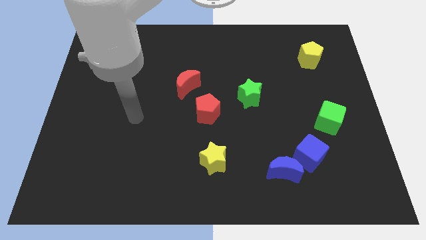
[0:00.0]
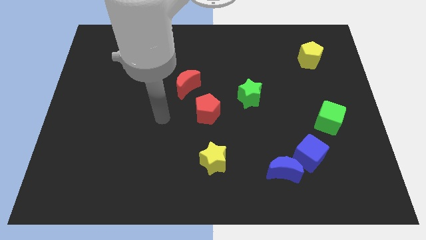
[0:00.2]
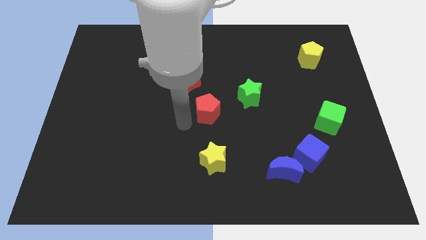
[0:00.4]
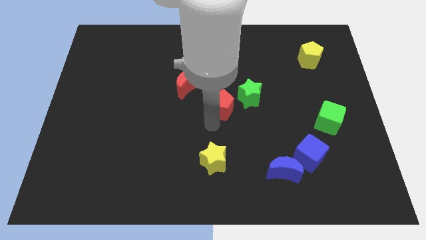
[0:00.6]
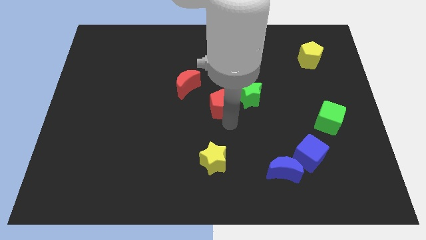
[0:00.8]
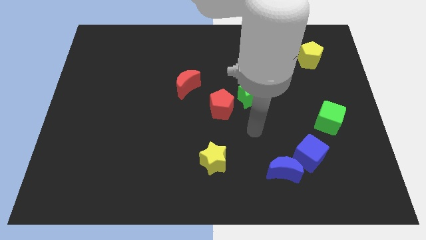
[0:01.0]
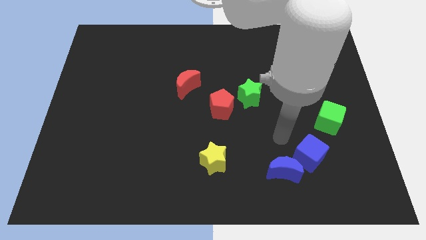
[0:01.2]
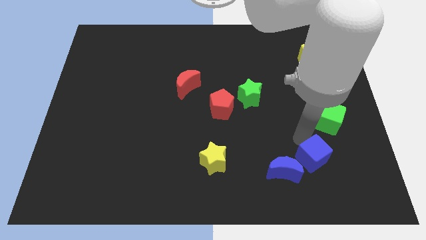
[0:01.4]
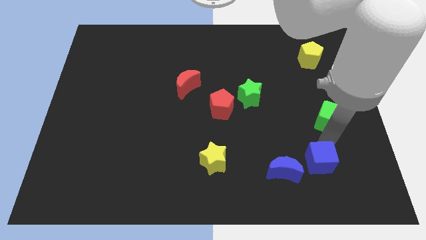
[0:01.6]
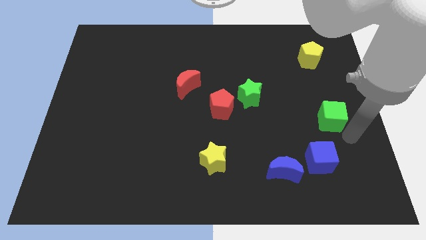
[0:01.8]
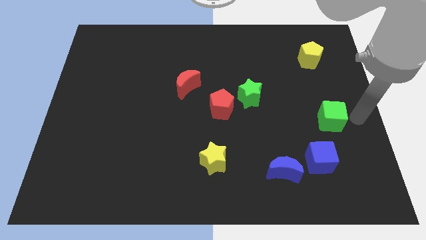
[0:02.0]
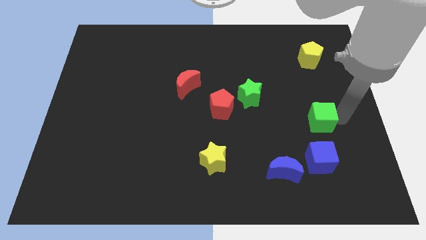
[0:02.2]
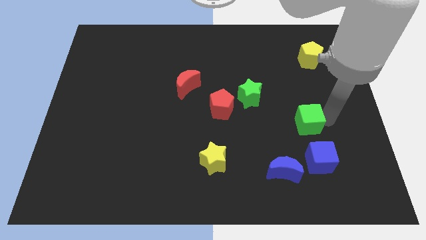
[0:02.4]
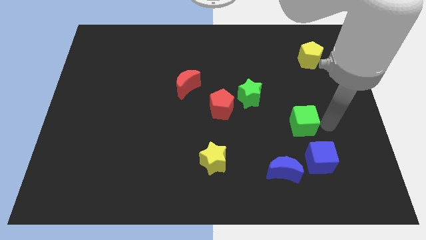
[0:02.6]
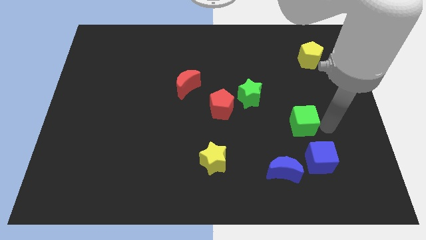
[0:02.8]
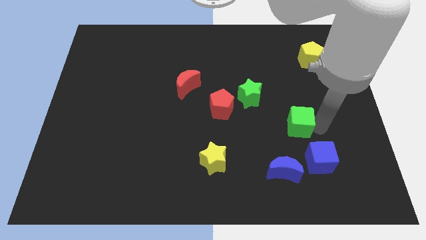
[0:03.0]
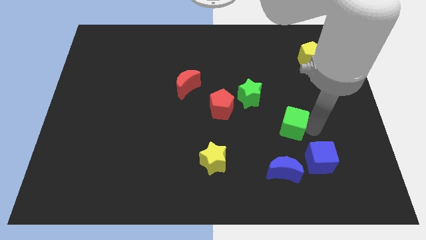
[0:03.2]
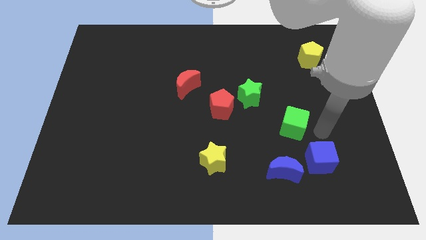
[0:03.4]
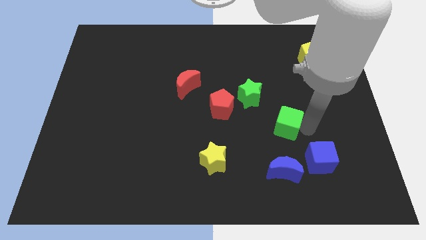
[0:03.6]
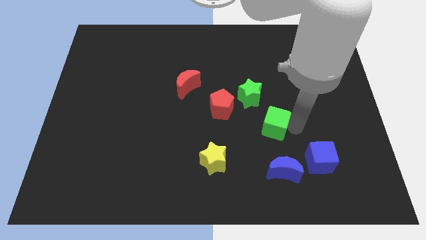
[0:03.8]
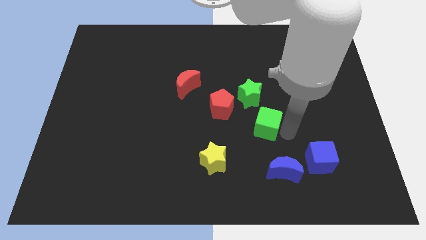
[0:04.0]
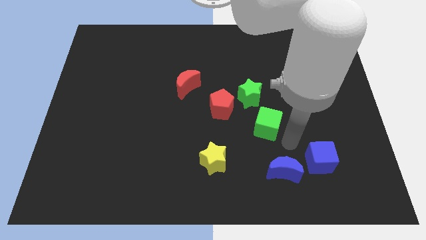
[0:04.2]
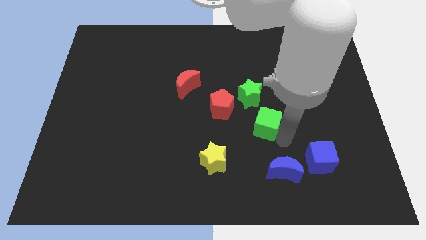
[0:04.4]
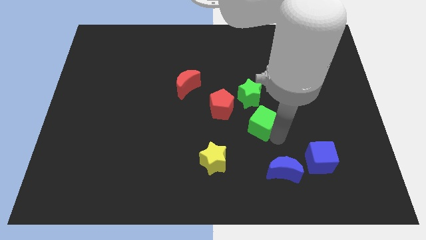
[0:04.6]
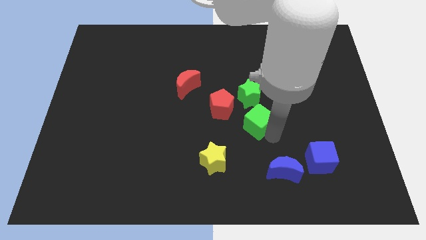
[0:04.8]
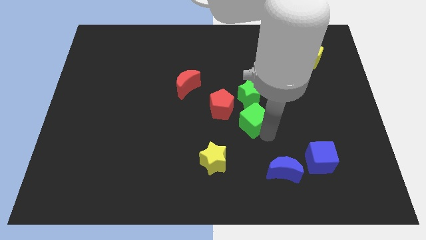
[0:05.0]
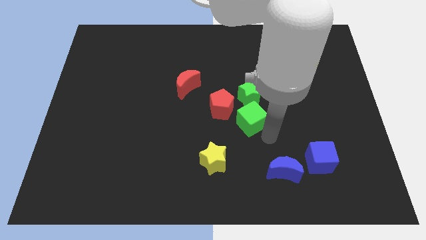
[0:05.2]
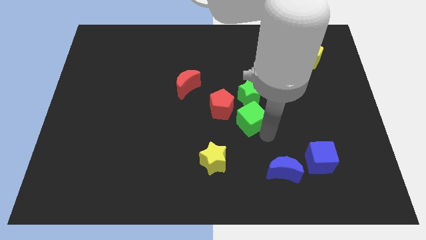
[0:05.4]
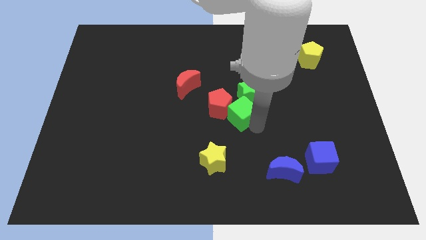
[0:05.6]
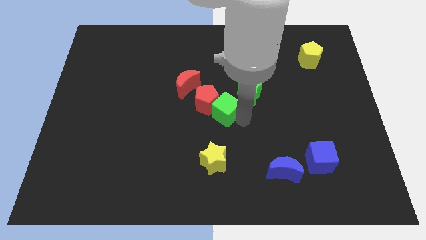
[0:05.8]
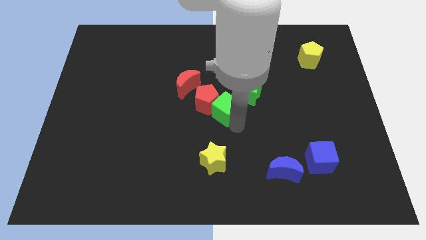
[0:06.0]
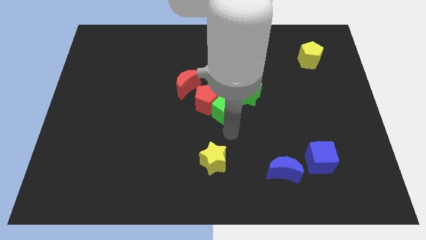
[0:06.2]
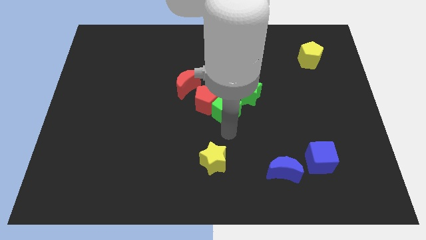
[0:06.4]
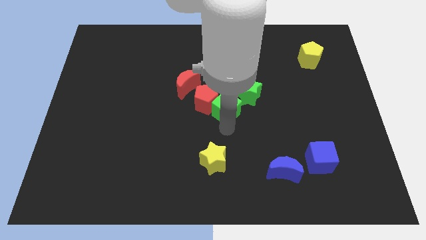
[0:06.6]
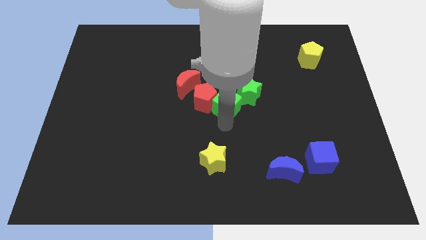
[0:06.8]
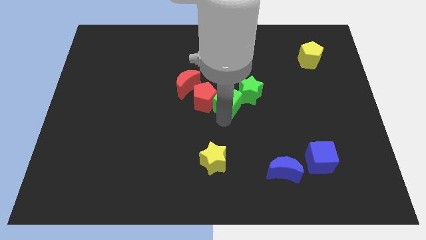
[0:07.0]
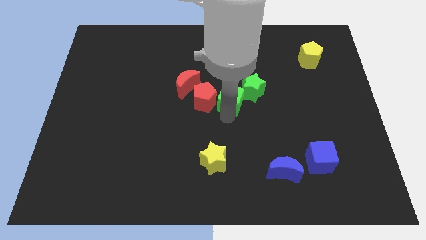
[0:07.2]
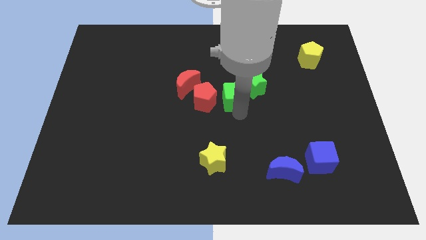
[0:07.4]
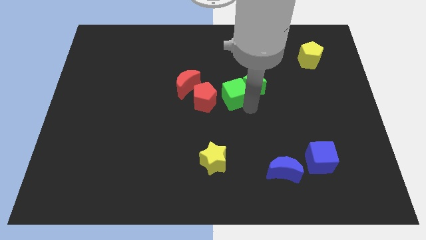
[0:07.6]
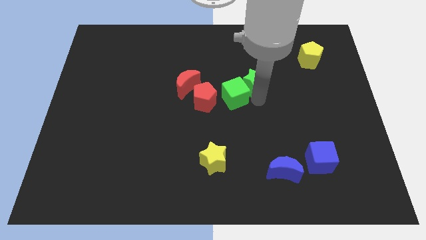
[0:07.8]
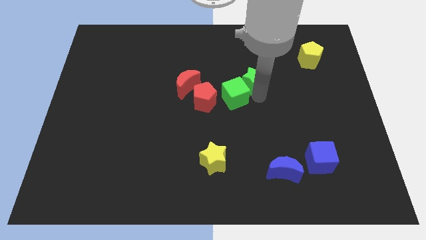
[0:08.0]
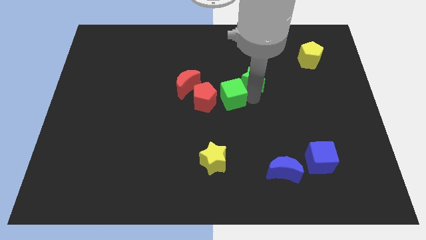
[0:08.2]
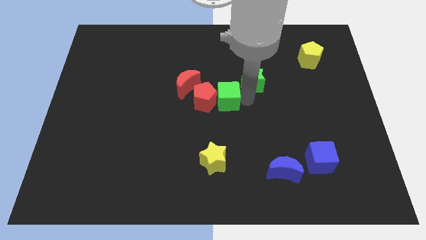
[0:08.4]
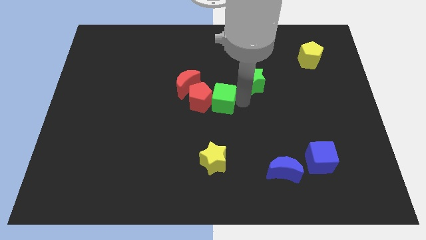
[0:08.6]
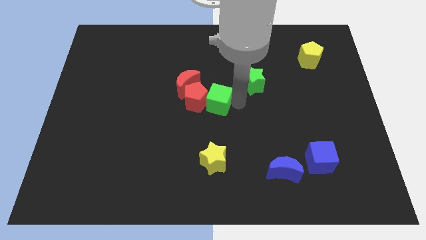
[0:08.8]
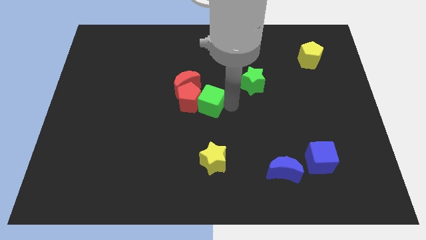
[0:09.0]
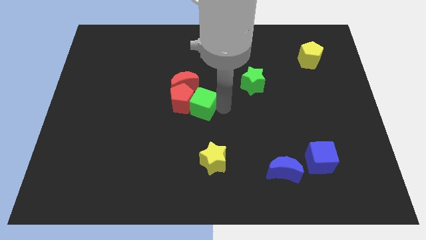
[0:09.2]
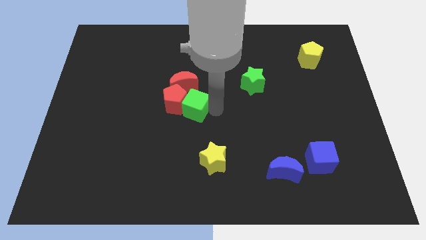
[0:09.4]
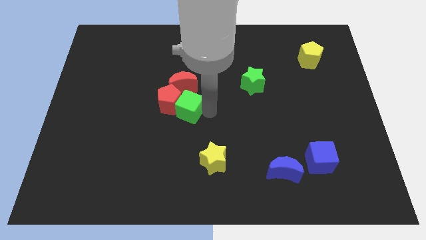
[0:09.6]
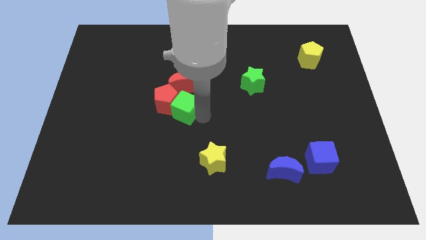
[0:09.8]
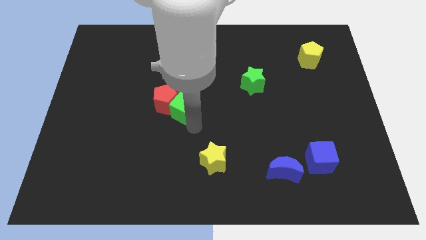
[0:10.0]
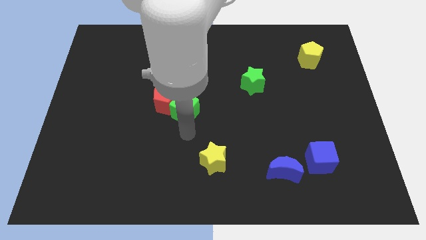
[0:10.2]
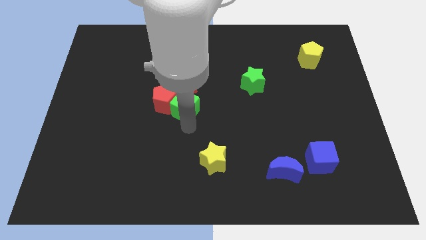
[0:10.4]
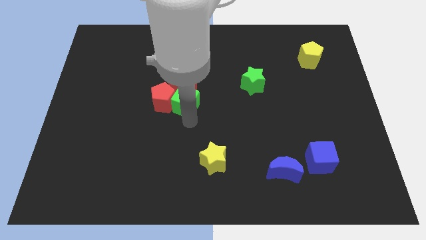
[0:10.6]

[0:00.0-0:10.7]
slide the green cube to the red moon

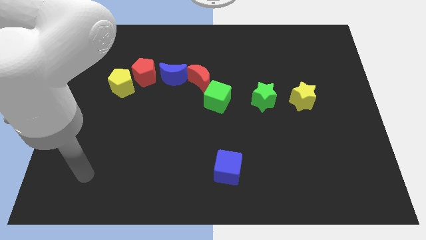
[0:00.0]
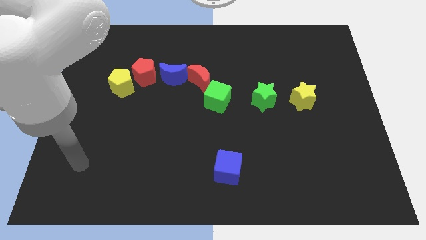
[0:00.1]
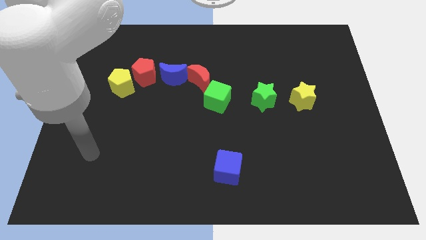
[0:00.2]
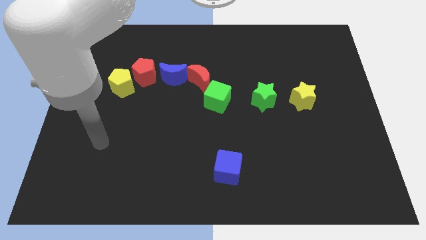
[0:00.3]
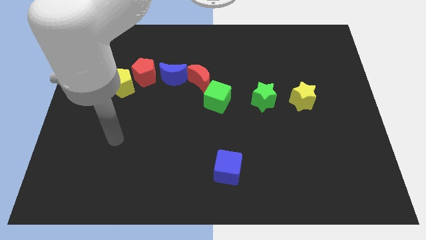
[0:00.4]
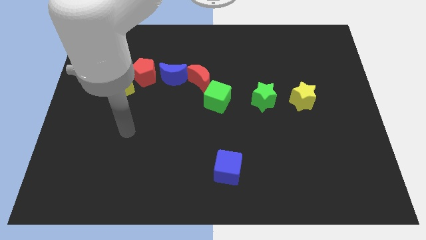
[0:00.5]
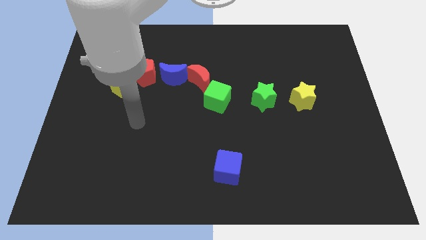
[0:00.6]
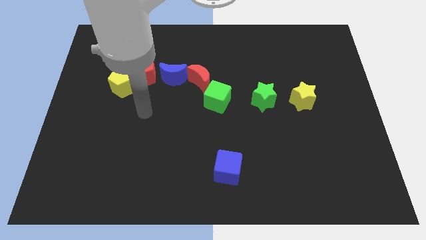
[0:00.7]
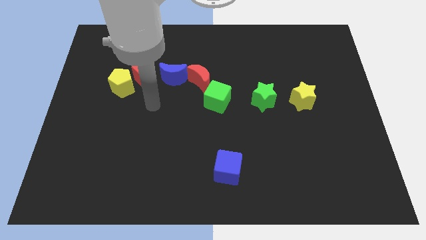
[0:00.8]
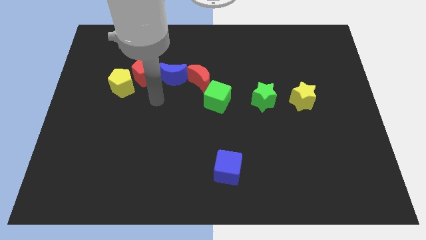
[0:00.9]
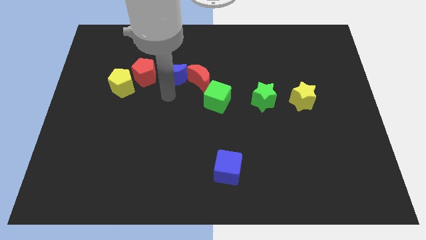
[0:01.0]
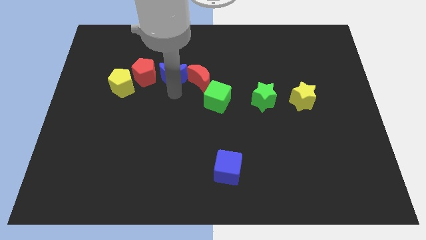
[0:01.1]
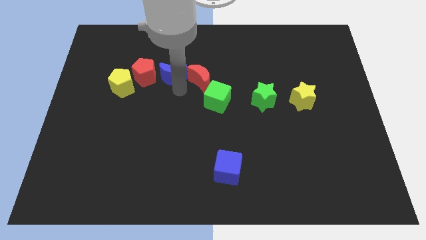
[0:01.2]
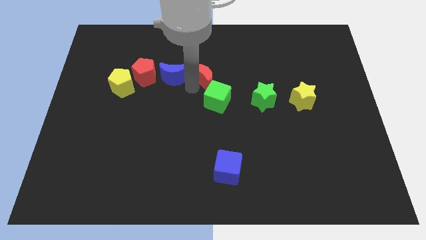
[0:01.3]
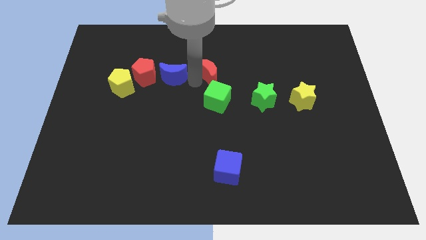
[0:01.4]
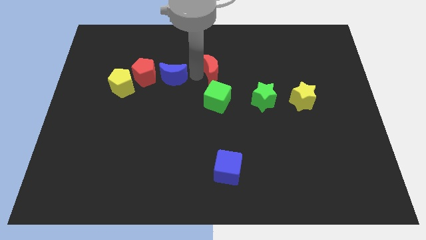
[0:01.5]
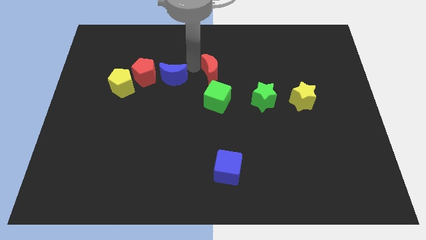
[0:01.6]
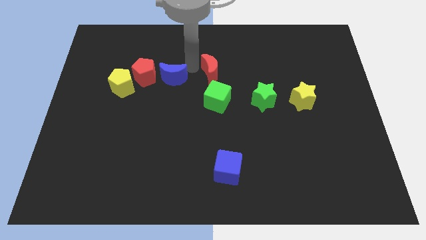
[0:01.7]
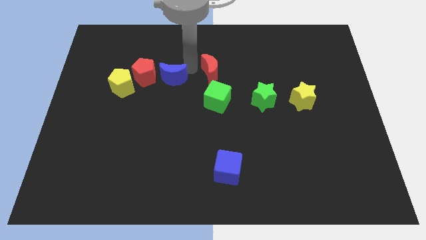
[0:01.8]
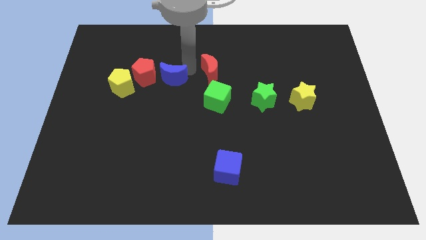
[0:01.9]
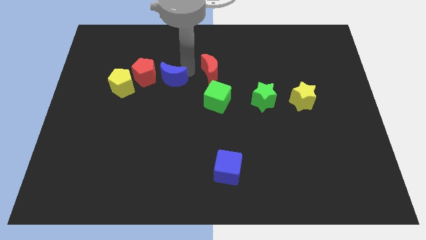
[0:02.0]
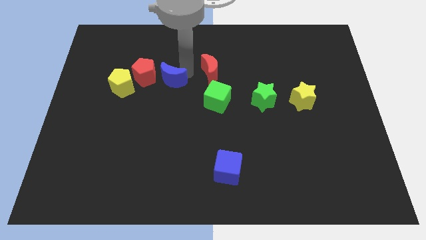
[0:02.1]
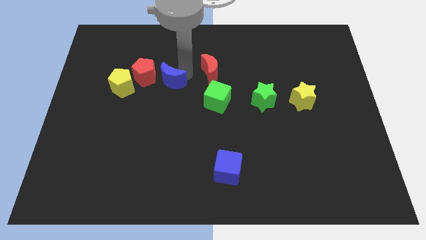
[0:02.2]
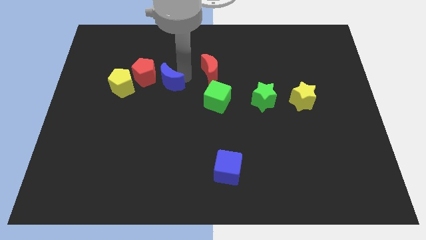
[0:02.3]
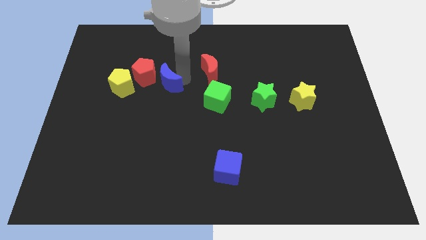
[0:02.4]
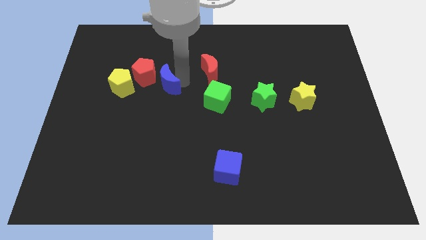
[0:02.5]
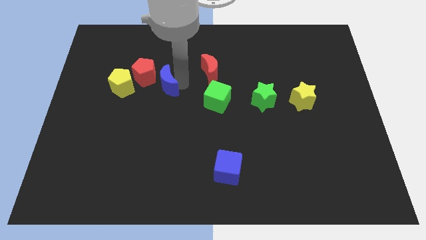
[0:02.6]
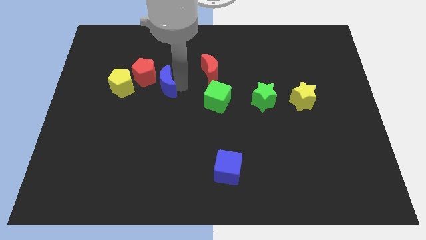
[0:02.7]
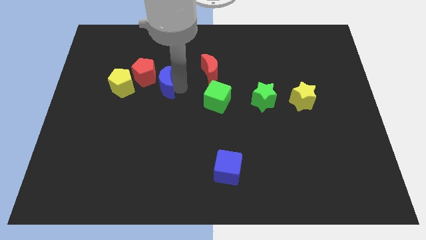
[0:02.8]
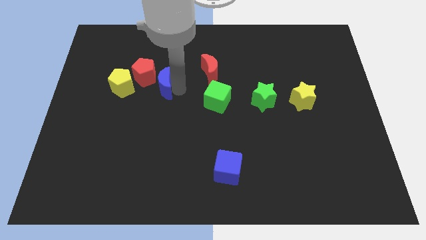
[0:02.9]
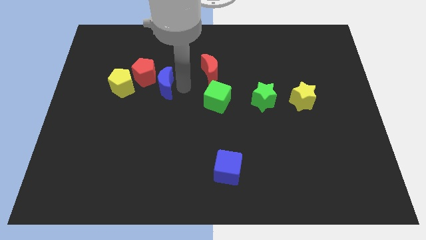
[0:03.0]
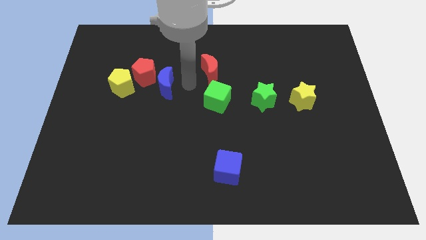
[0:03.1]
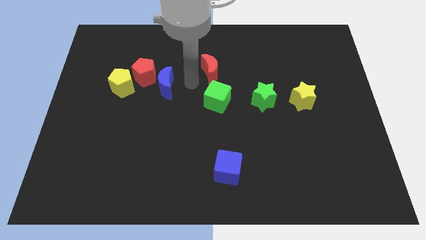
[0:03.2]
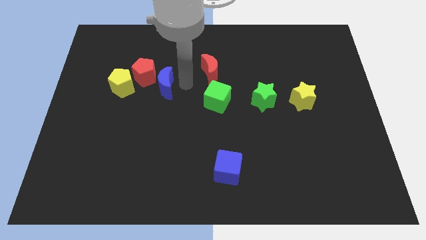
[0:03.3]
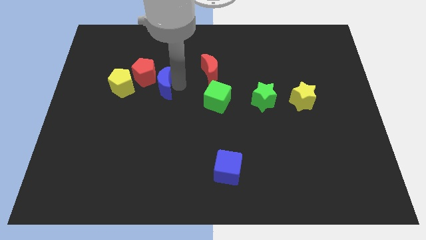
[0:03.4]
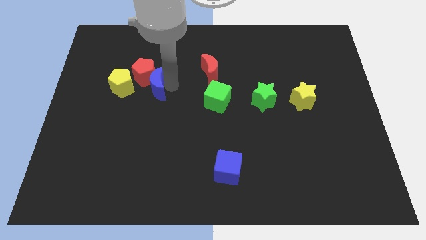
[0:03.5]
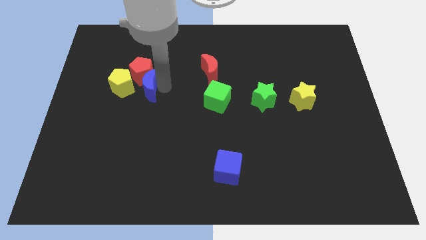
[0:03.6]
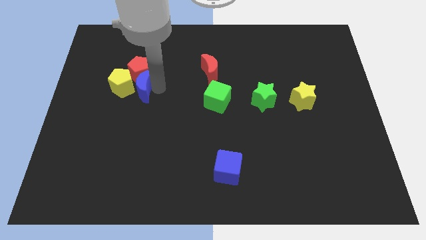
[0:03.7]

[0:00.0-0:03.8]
put the blue moon next to the yellow pentagon
